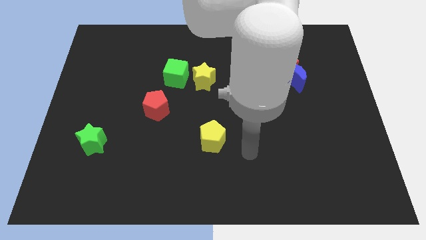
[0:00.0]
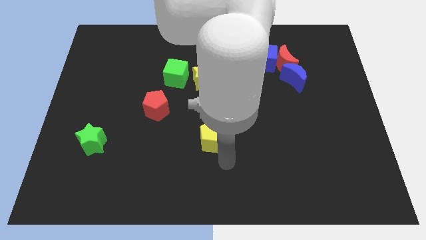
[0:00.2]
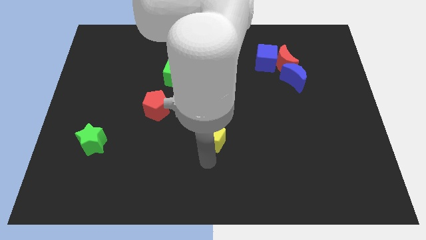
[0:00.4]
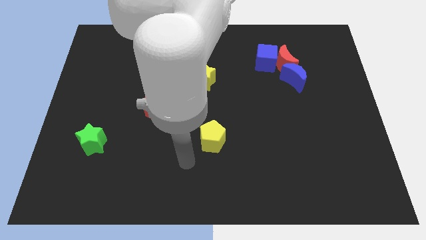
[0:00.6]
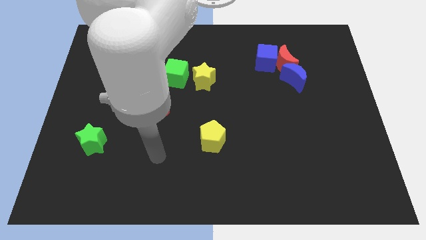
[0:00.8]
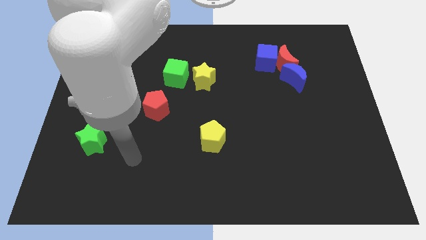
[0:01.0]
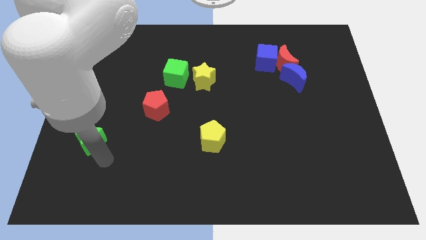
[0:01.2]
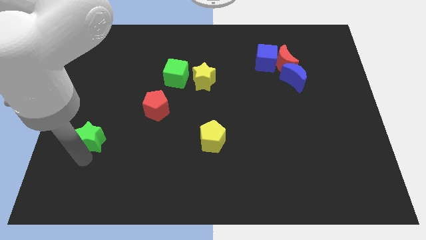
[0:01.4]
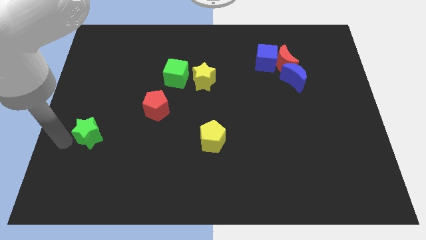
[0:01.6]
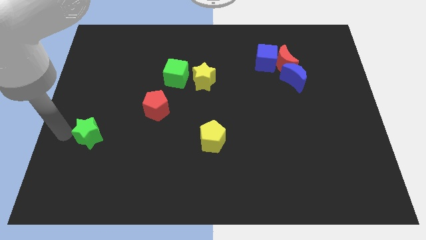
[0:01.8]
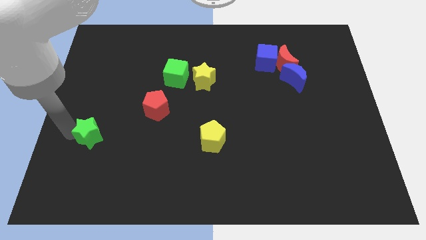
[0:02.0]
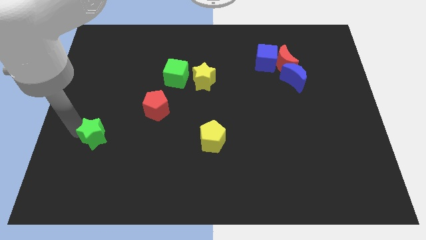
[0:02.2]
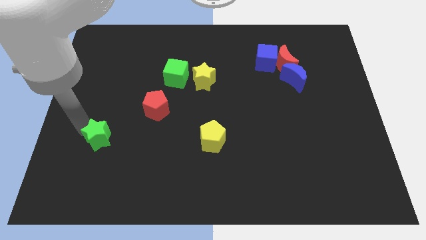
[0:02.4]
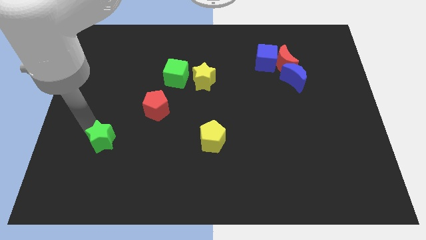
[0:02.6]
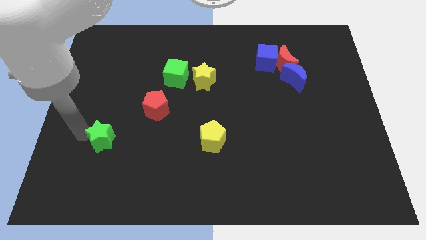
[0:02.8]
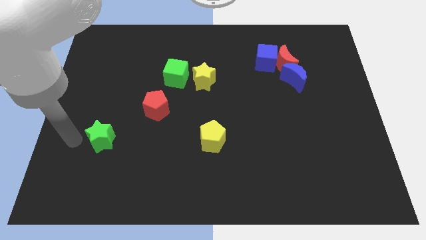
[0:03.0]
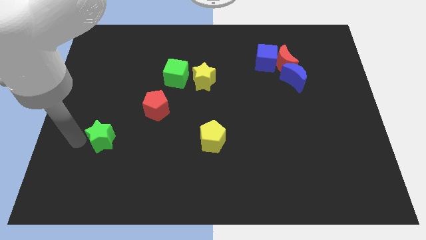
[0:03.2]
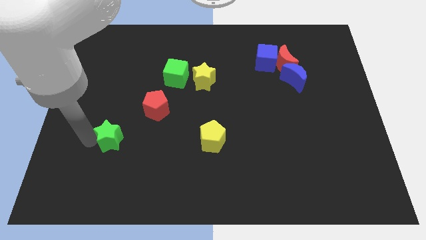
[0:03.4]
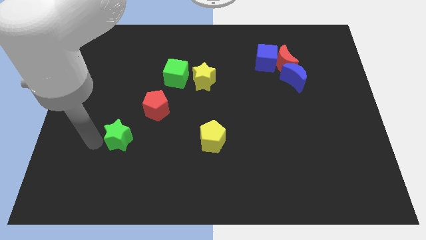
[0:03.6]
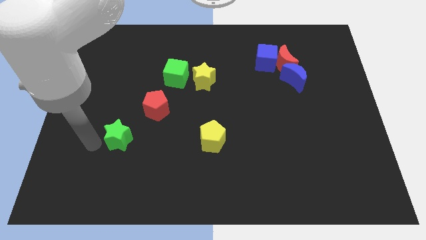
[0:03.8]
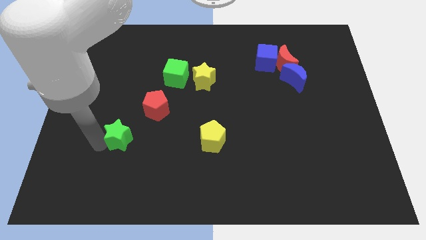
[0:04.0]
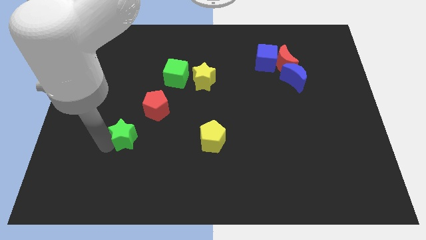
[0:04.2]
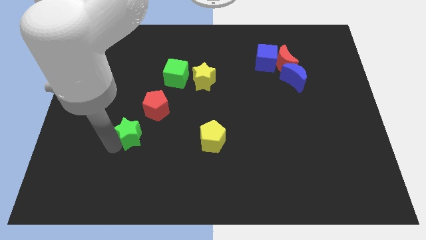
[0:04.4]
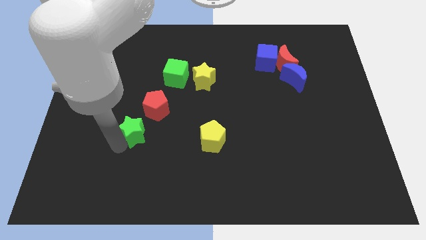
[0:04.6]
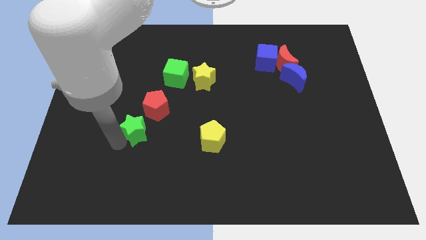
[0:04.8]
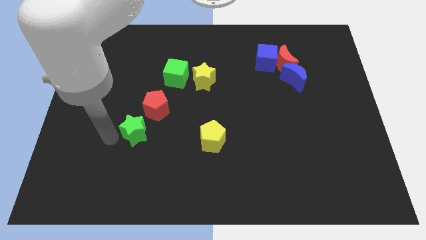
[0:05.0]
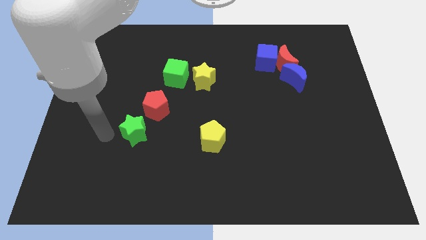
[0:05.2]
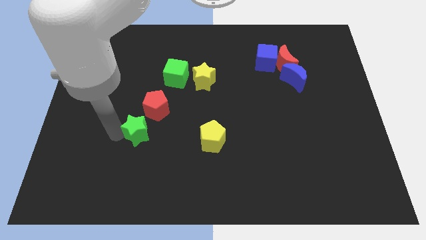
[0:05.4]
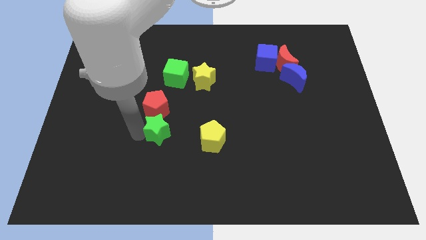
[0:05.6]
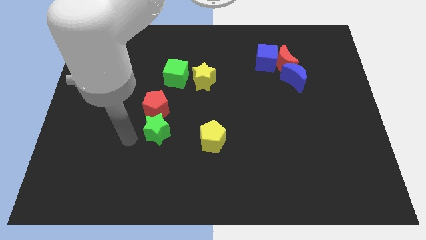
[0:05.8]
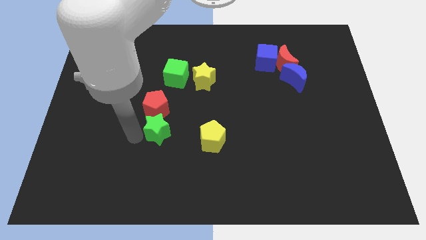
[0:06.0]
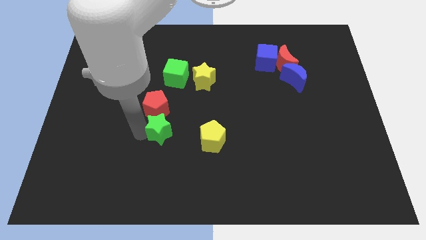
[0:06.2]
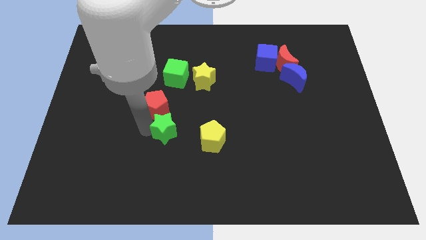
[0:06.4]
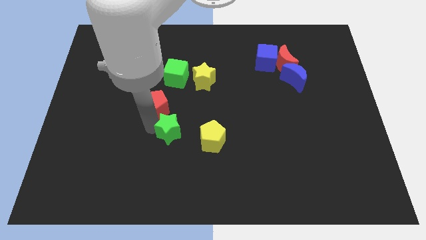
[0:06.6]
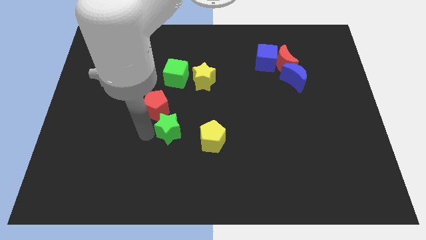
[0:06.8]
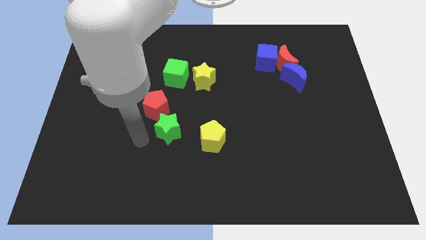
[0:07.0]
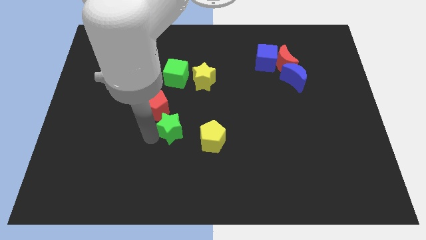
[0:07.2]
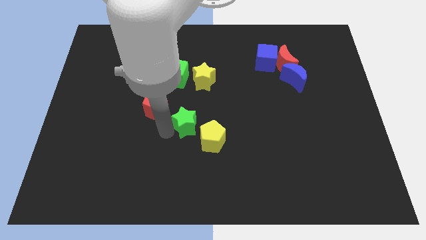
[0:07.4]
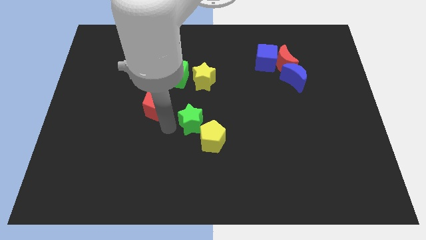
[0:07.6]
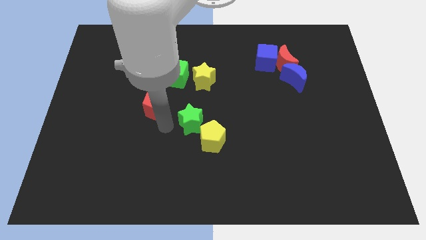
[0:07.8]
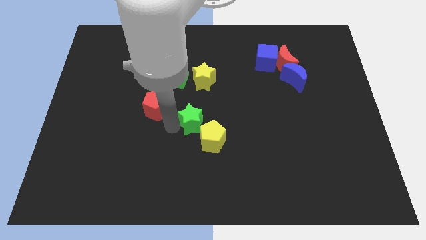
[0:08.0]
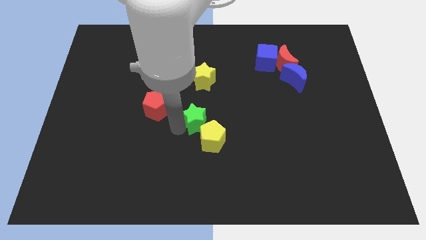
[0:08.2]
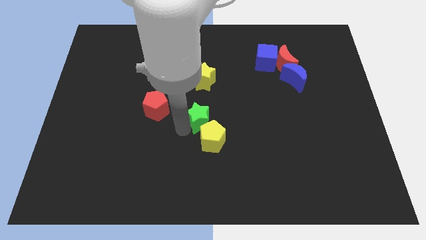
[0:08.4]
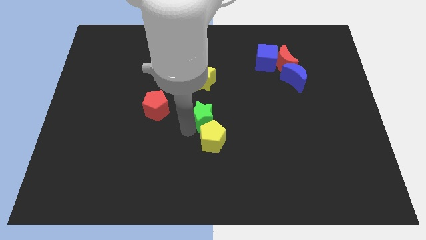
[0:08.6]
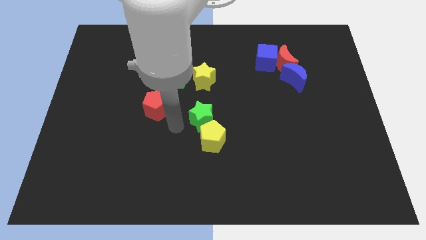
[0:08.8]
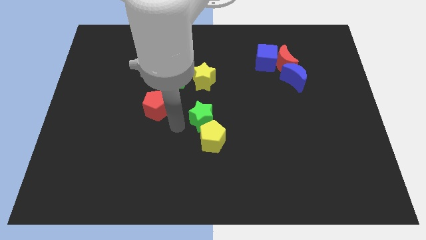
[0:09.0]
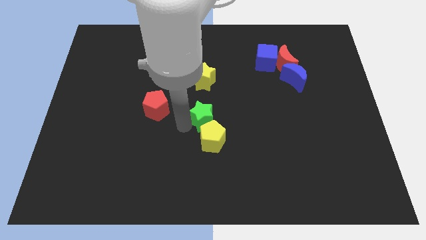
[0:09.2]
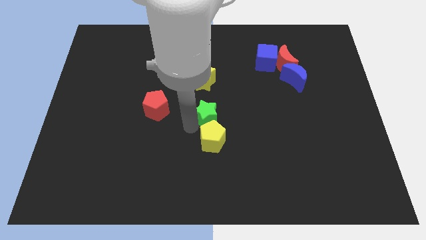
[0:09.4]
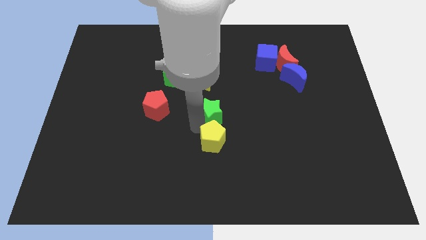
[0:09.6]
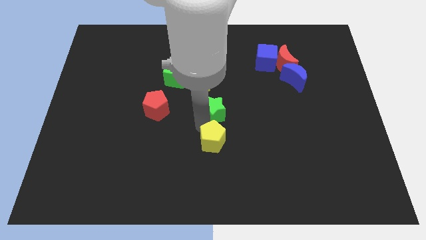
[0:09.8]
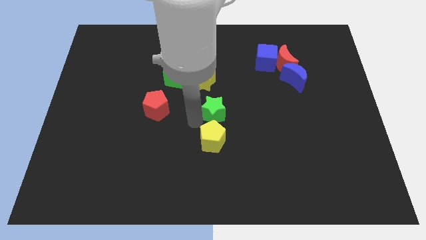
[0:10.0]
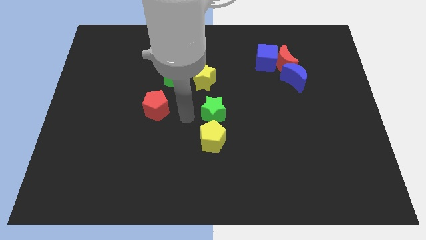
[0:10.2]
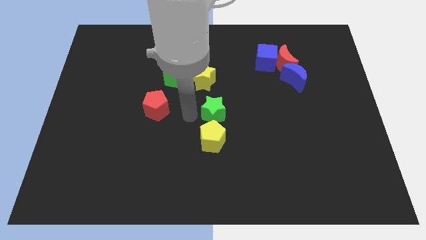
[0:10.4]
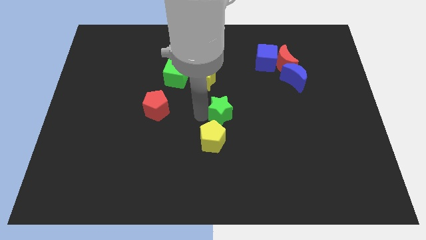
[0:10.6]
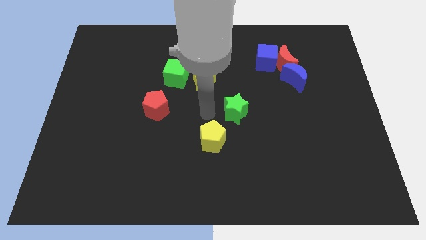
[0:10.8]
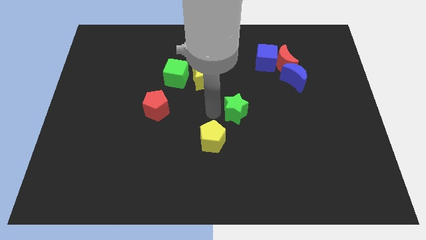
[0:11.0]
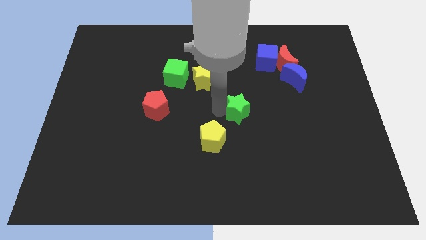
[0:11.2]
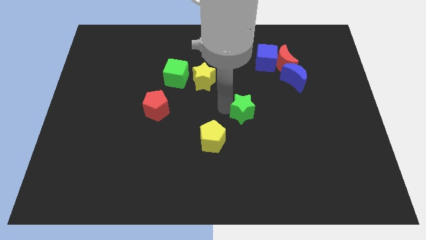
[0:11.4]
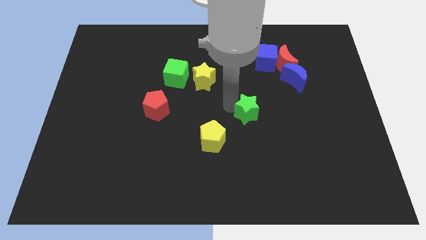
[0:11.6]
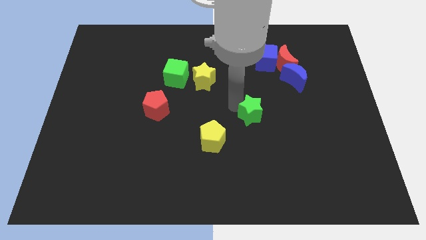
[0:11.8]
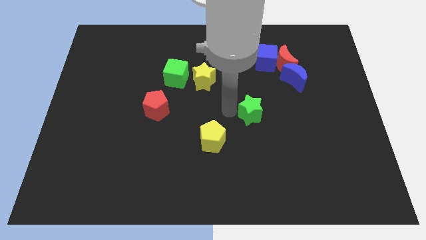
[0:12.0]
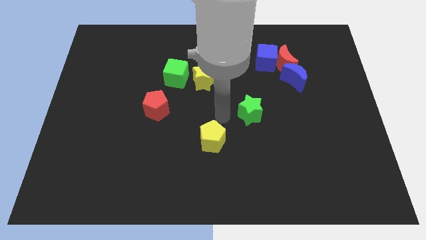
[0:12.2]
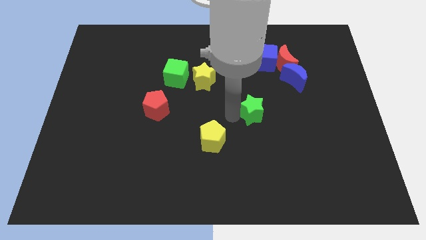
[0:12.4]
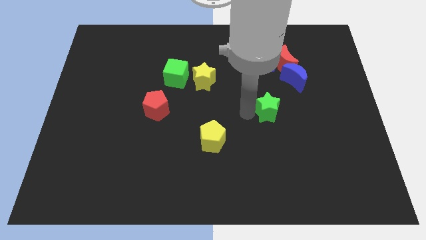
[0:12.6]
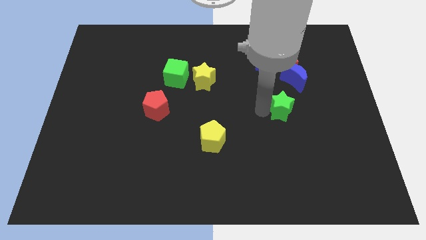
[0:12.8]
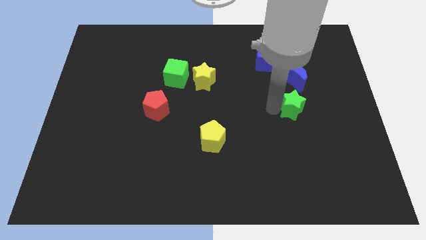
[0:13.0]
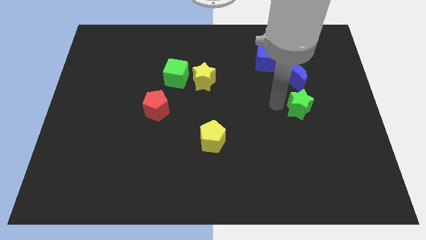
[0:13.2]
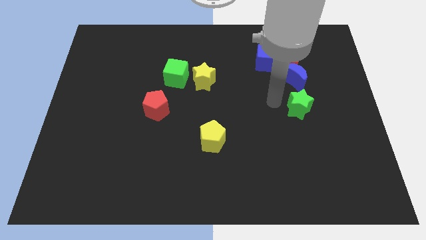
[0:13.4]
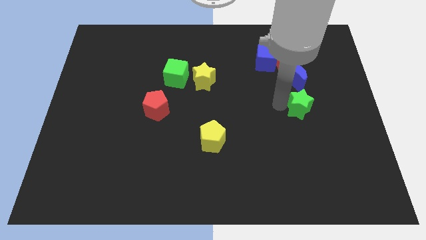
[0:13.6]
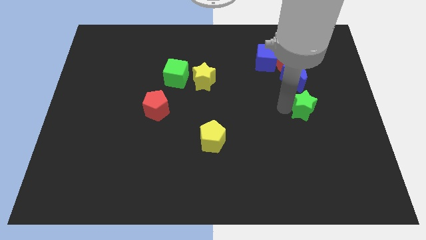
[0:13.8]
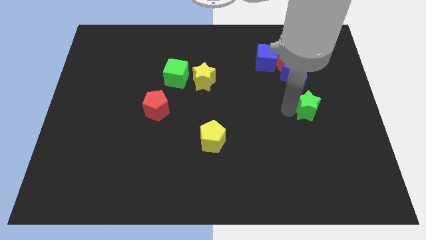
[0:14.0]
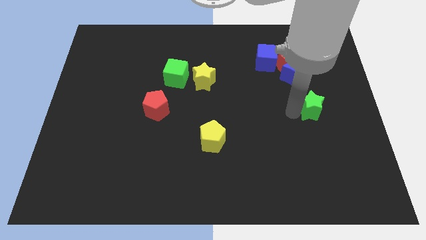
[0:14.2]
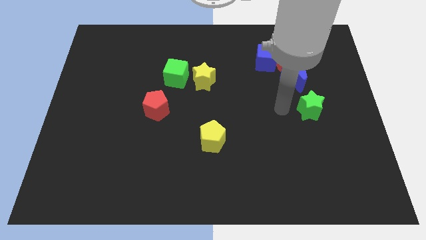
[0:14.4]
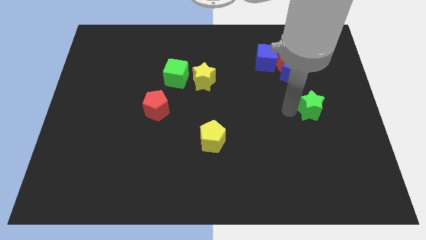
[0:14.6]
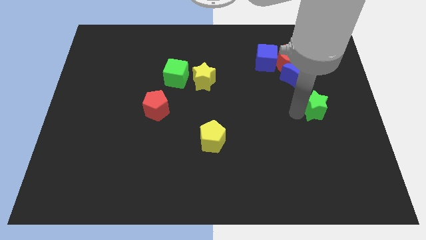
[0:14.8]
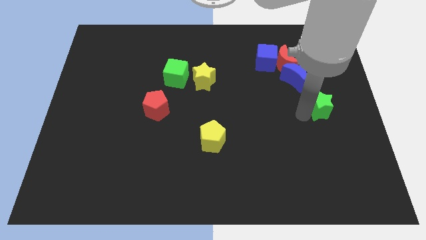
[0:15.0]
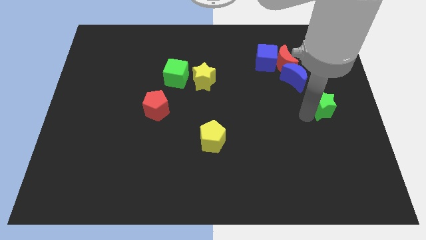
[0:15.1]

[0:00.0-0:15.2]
move the green star to the center right
